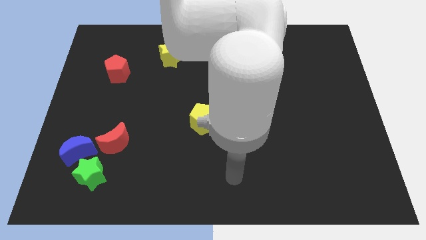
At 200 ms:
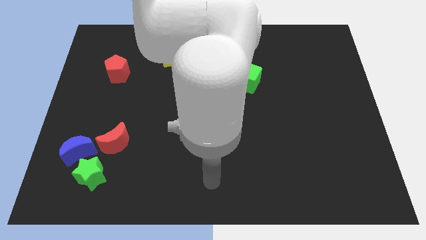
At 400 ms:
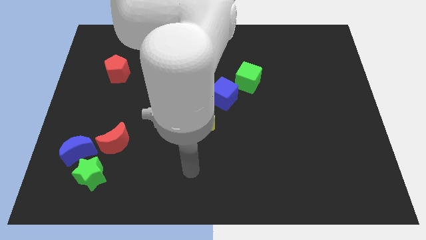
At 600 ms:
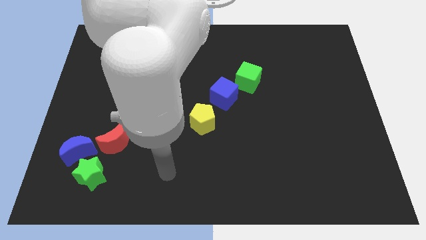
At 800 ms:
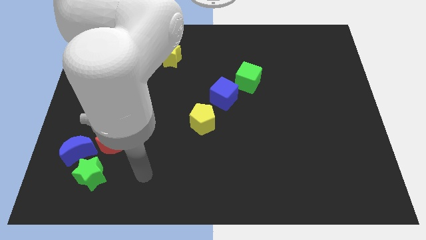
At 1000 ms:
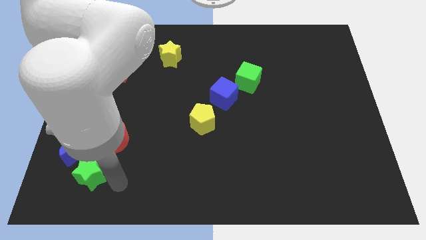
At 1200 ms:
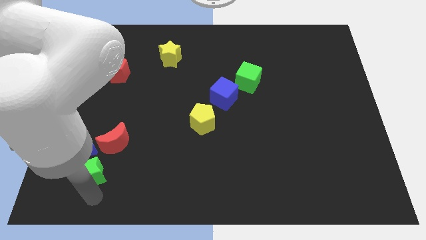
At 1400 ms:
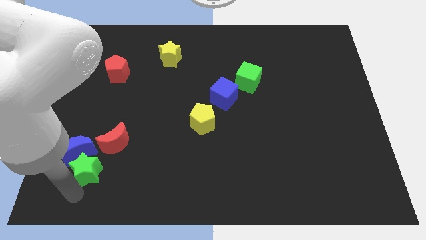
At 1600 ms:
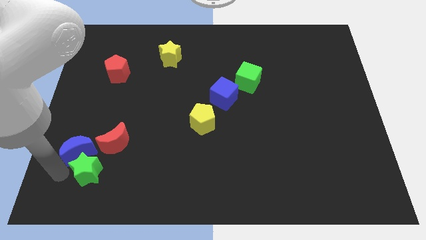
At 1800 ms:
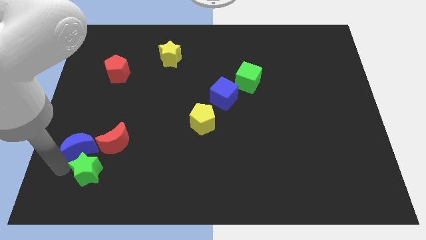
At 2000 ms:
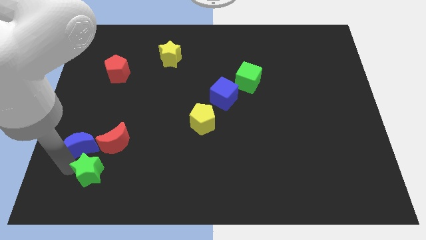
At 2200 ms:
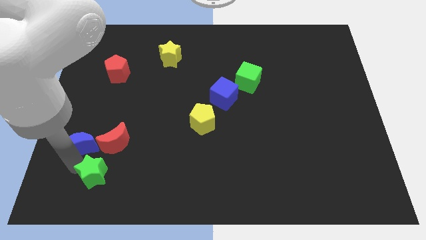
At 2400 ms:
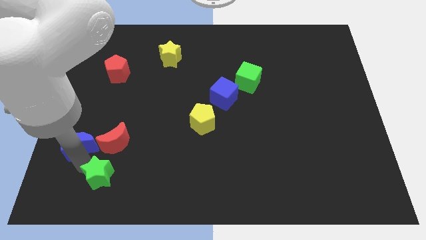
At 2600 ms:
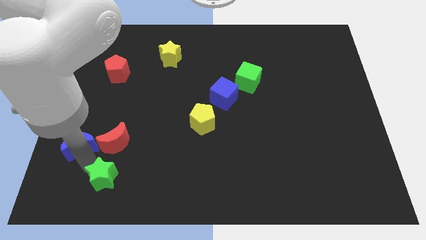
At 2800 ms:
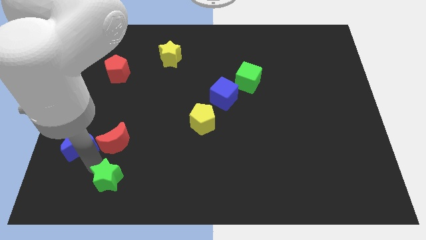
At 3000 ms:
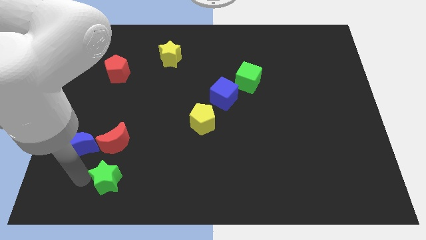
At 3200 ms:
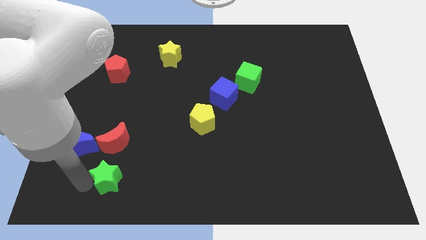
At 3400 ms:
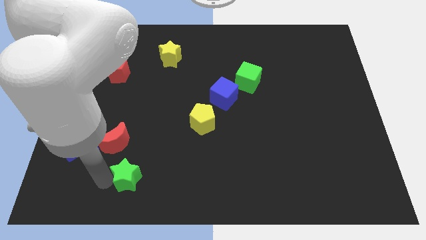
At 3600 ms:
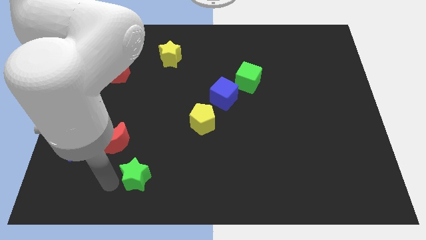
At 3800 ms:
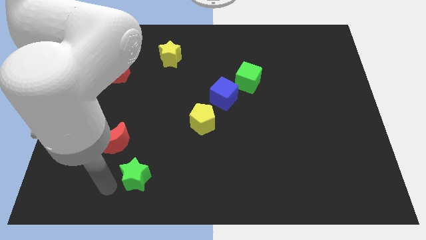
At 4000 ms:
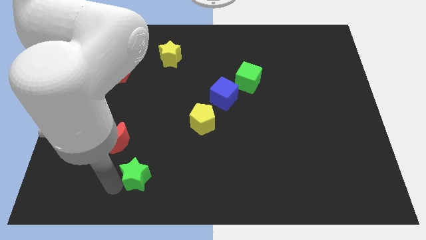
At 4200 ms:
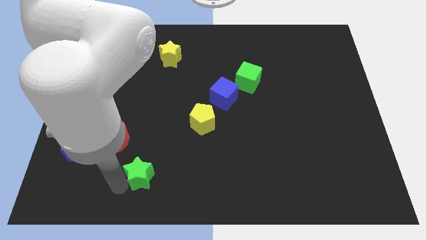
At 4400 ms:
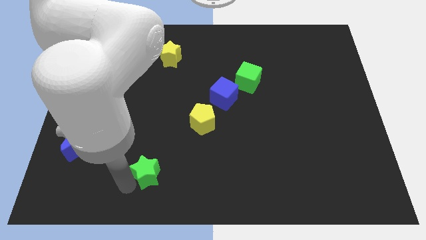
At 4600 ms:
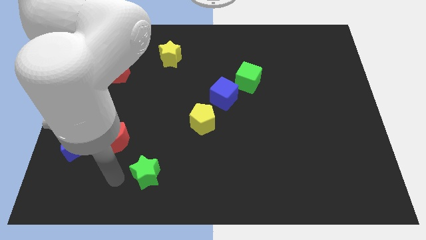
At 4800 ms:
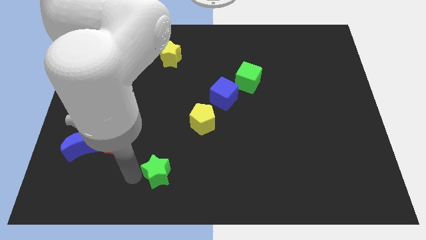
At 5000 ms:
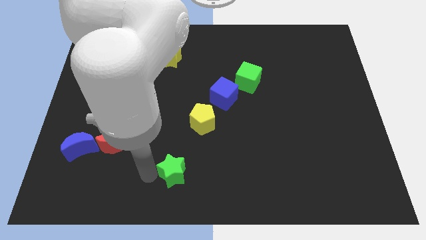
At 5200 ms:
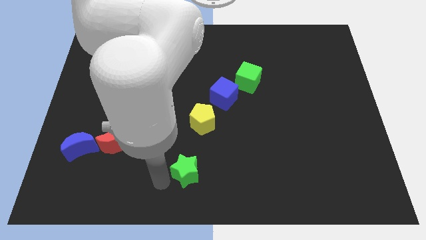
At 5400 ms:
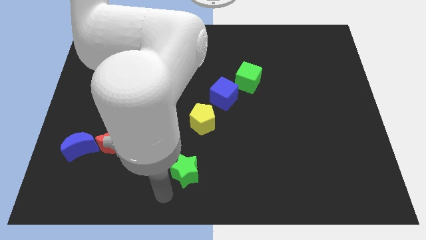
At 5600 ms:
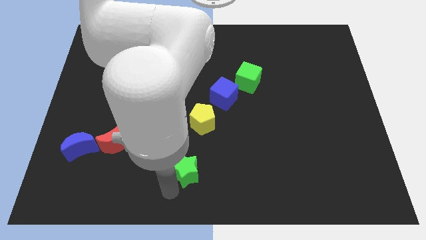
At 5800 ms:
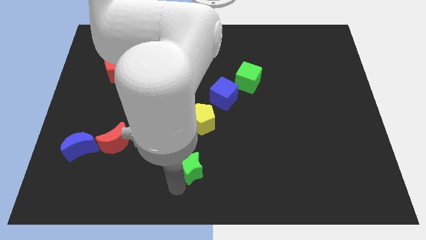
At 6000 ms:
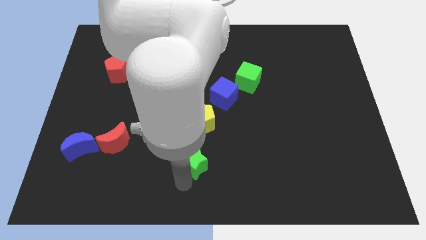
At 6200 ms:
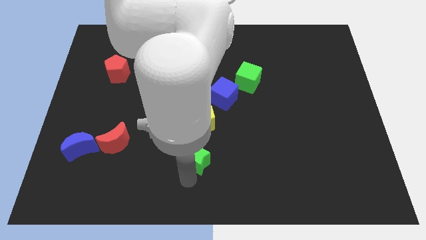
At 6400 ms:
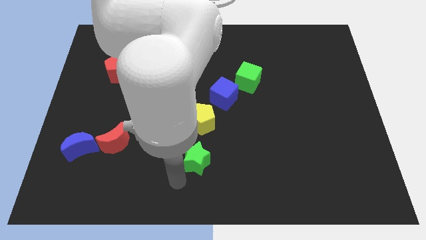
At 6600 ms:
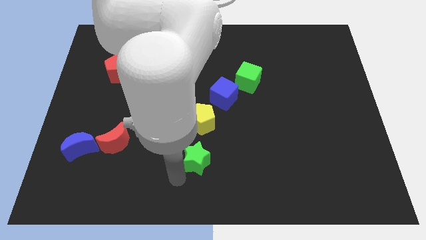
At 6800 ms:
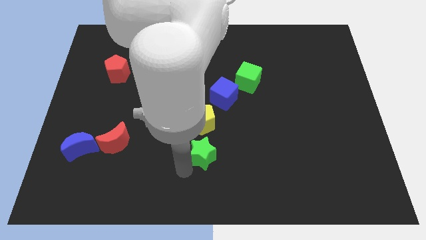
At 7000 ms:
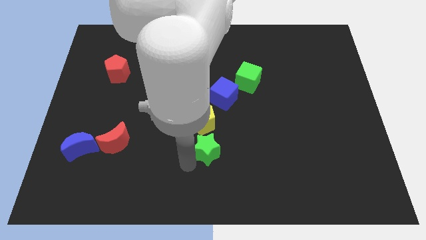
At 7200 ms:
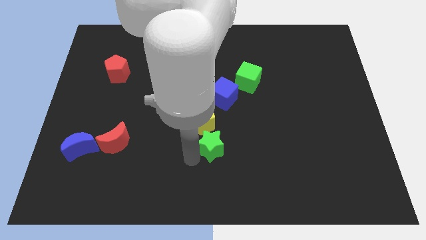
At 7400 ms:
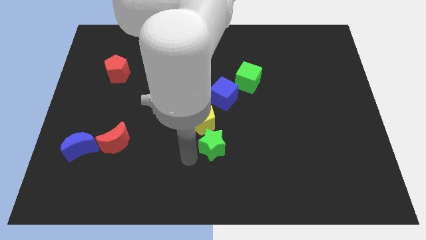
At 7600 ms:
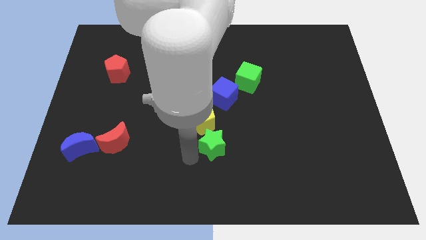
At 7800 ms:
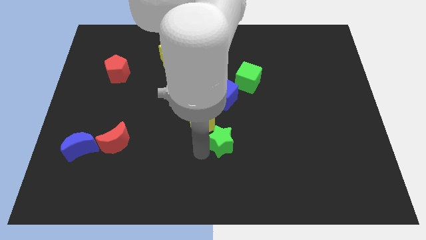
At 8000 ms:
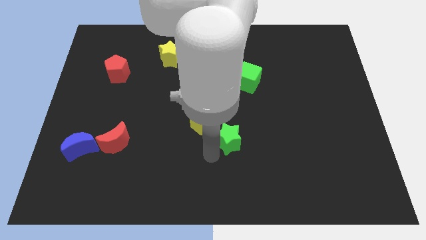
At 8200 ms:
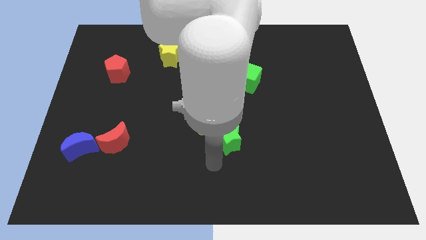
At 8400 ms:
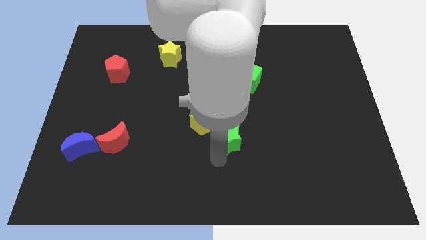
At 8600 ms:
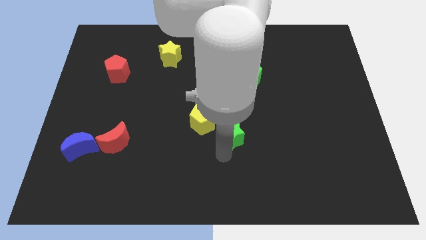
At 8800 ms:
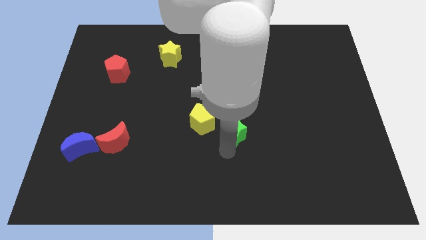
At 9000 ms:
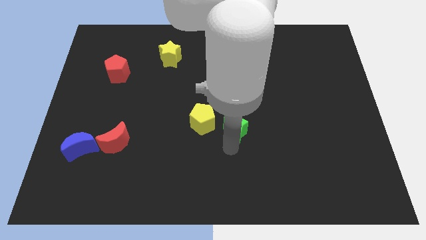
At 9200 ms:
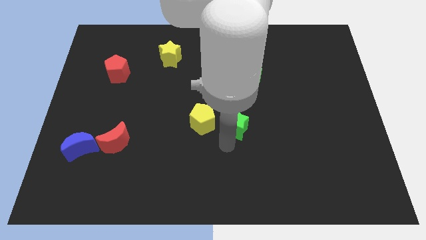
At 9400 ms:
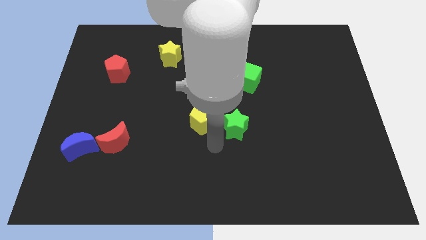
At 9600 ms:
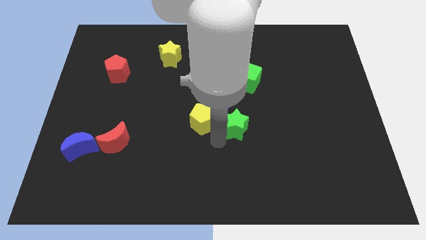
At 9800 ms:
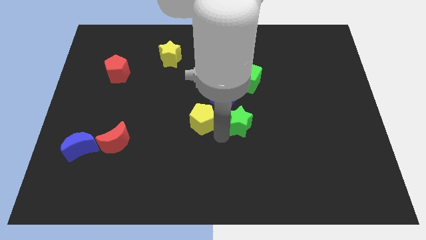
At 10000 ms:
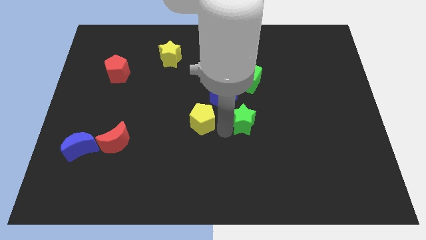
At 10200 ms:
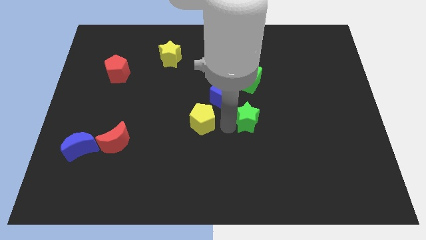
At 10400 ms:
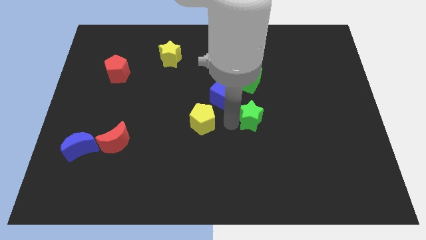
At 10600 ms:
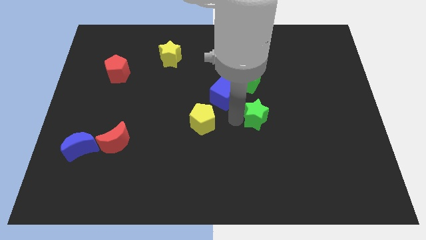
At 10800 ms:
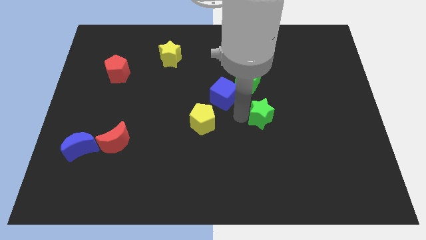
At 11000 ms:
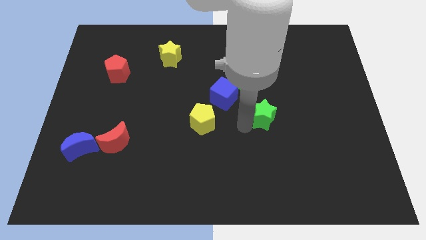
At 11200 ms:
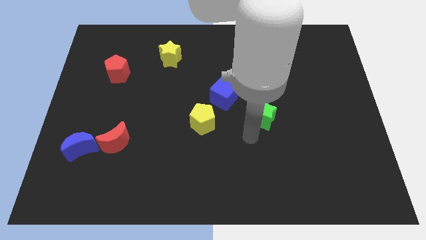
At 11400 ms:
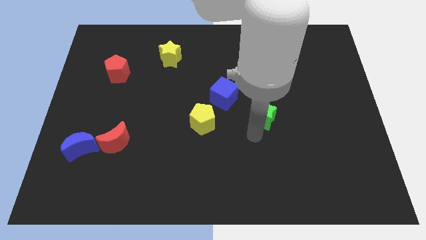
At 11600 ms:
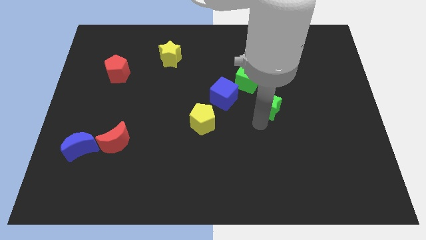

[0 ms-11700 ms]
put the green star to the bottom right of the green cube

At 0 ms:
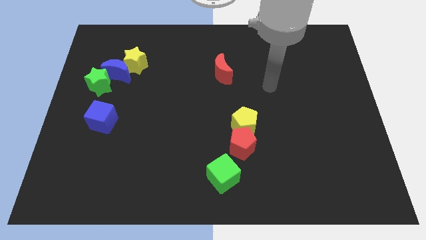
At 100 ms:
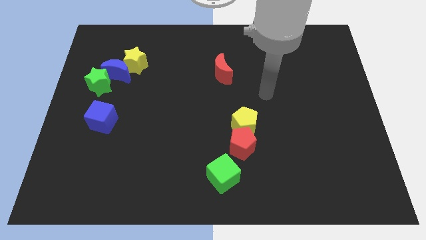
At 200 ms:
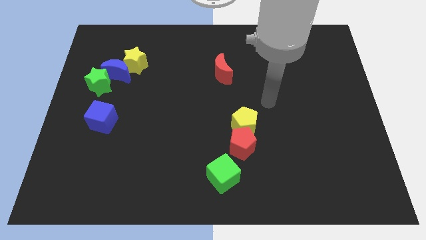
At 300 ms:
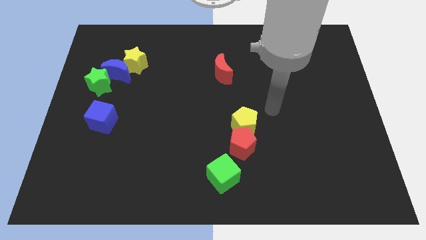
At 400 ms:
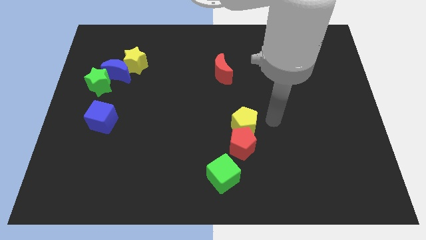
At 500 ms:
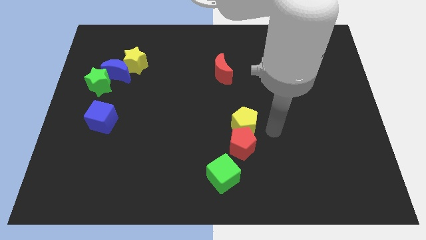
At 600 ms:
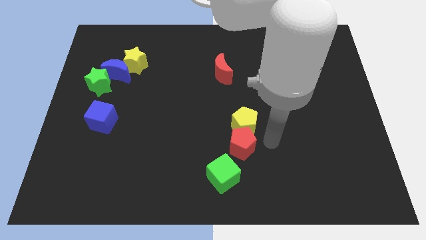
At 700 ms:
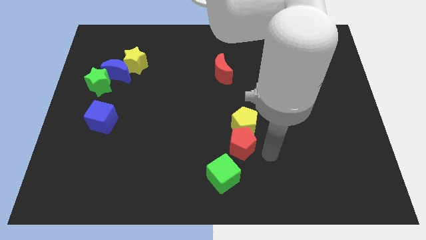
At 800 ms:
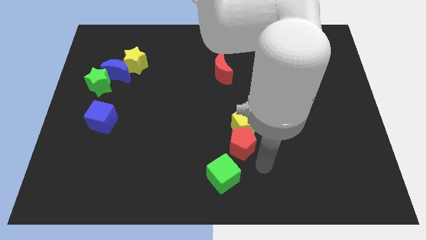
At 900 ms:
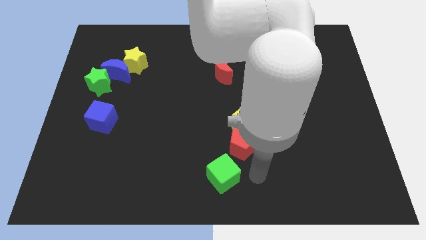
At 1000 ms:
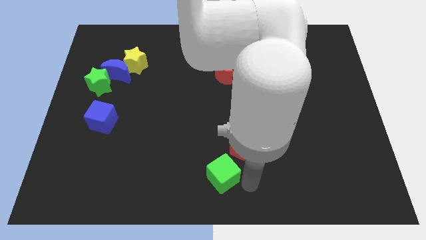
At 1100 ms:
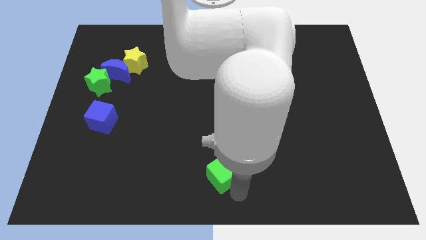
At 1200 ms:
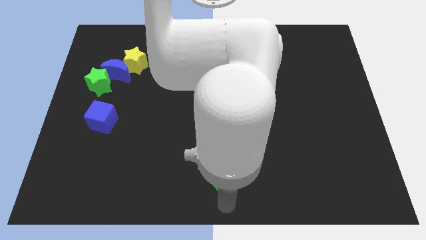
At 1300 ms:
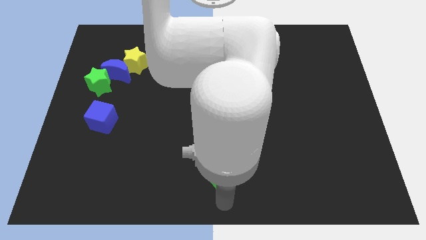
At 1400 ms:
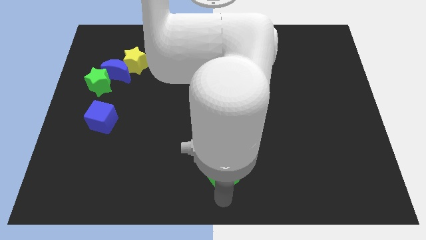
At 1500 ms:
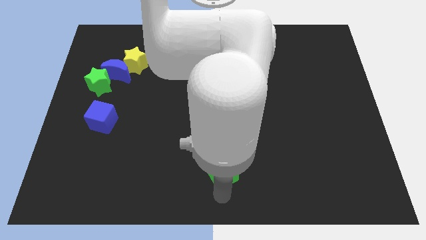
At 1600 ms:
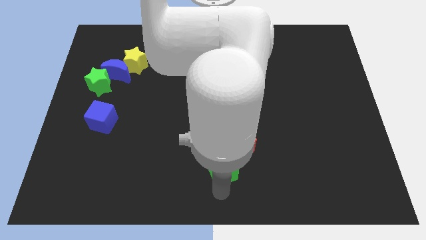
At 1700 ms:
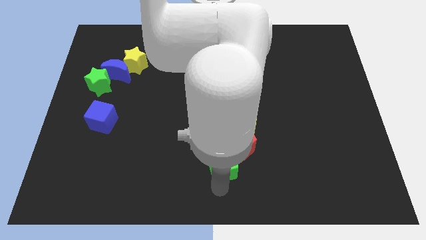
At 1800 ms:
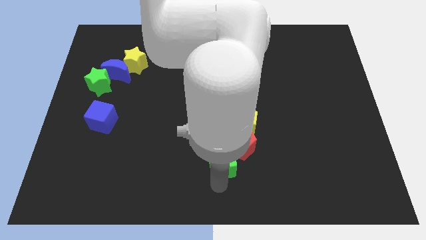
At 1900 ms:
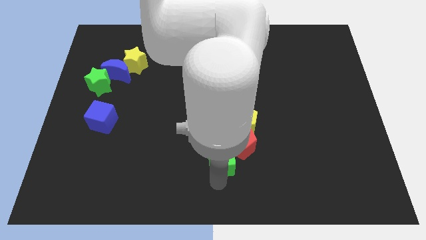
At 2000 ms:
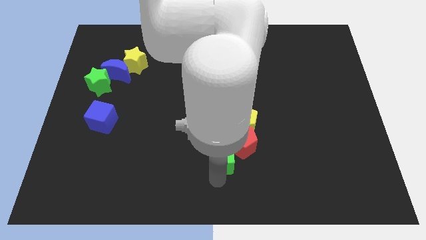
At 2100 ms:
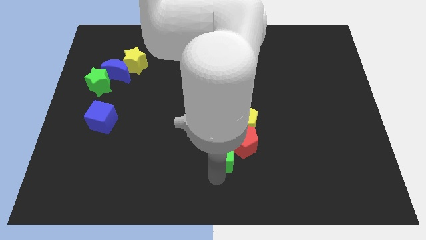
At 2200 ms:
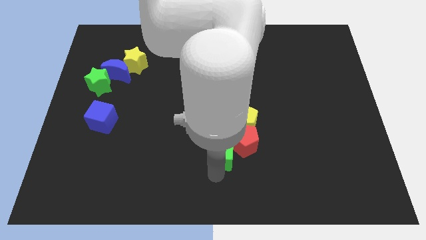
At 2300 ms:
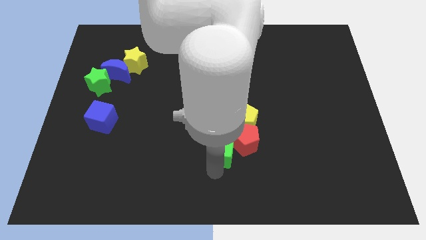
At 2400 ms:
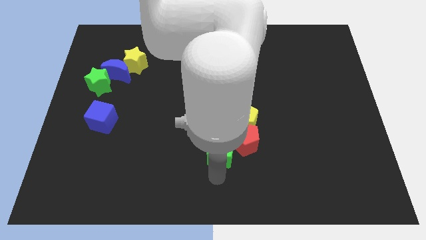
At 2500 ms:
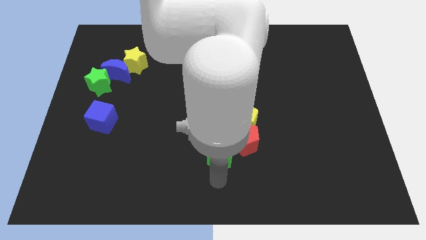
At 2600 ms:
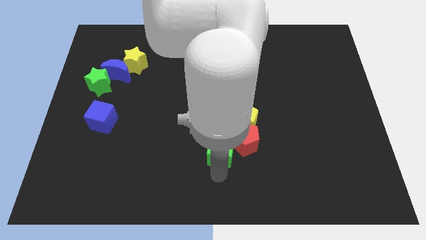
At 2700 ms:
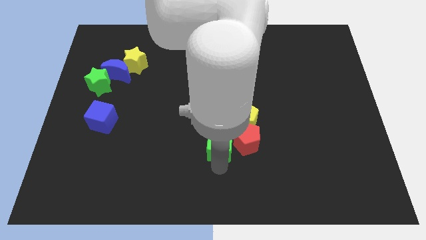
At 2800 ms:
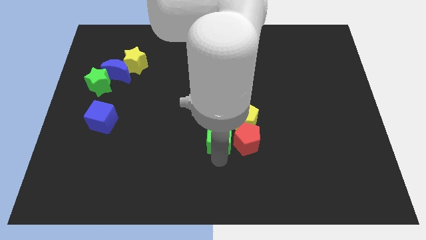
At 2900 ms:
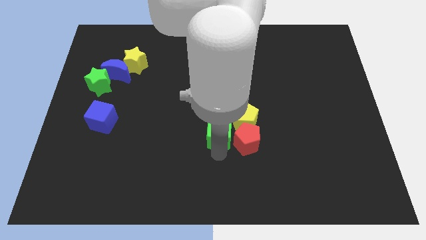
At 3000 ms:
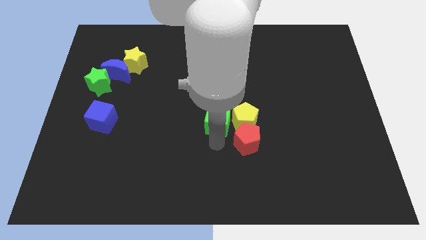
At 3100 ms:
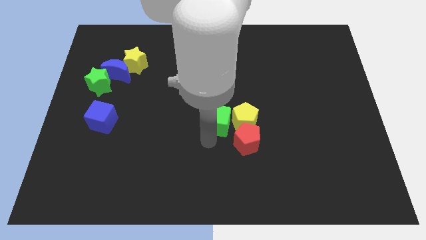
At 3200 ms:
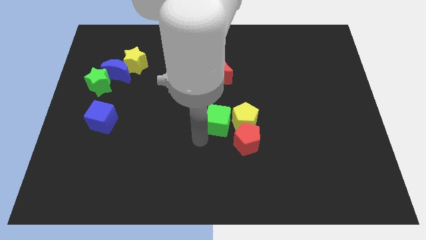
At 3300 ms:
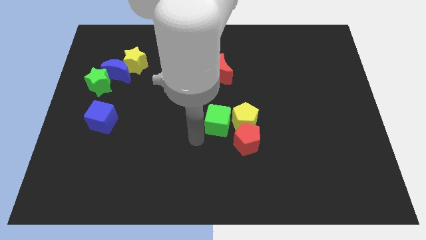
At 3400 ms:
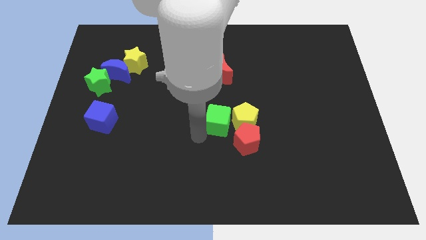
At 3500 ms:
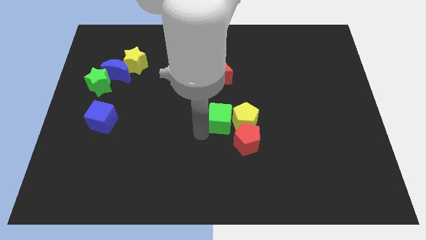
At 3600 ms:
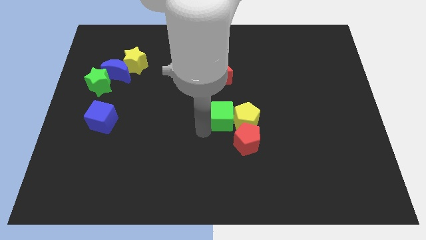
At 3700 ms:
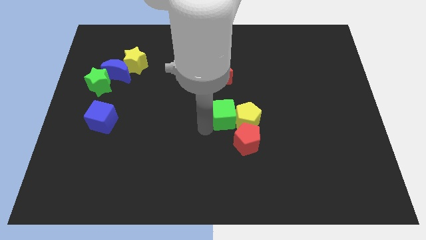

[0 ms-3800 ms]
slide the green cube above the red pentagon
